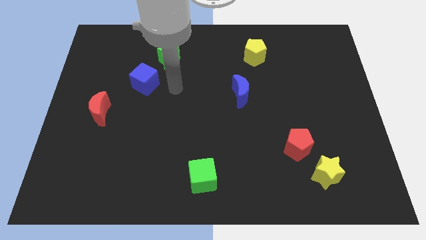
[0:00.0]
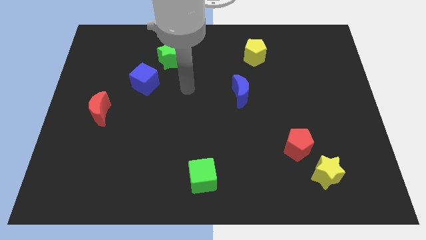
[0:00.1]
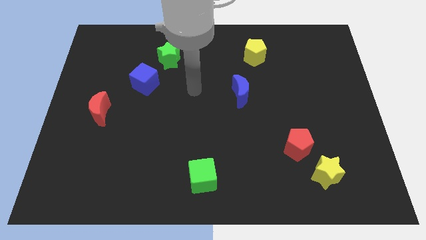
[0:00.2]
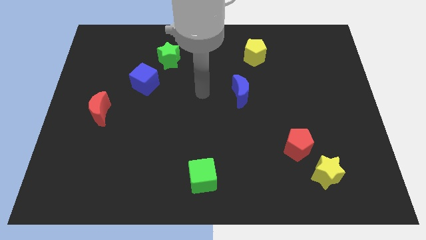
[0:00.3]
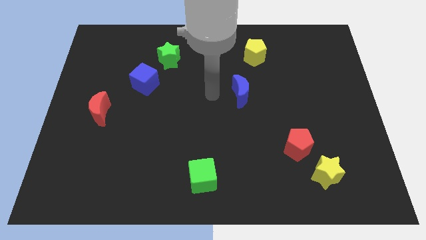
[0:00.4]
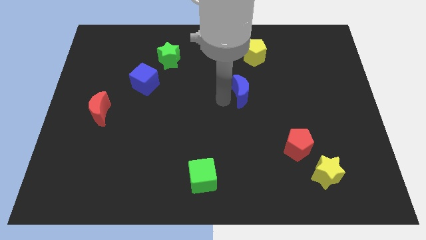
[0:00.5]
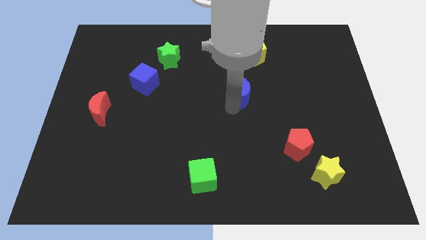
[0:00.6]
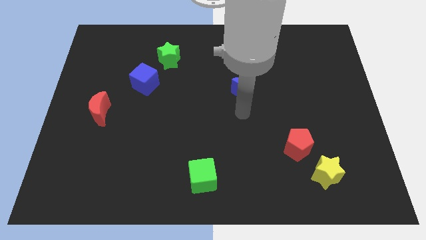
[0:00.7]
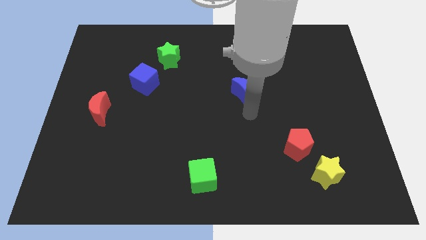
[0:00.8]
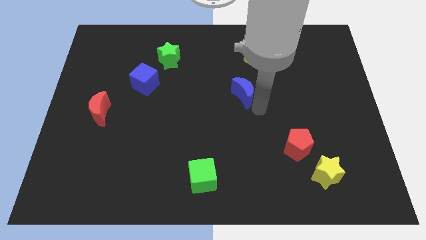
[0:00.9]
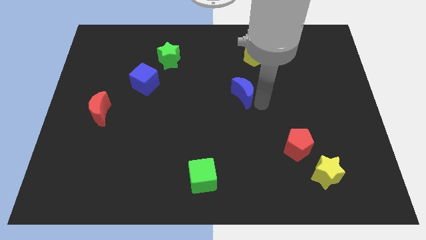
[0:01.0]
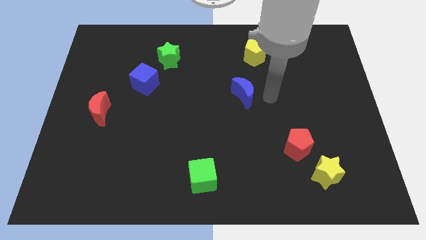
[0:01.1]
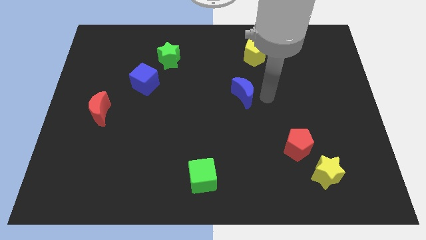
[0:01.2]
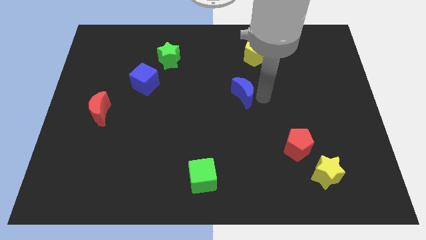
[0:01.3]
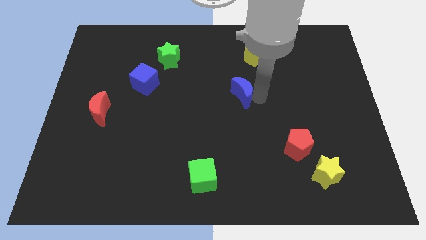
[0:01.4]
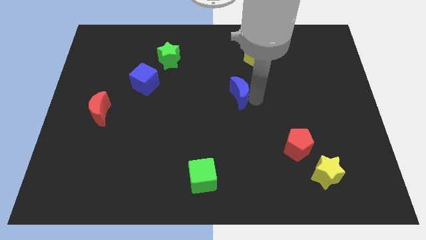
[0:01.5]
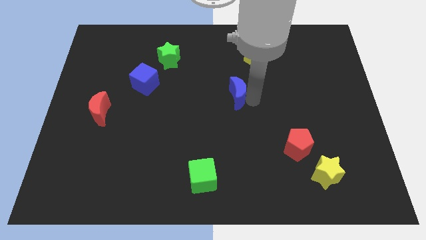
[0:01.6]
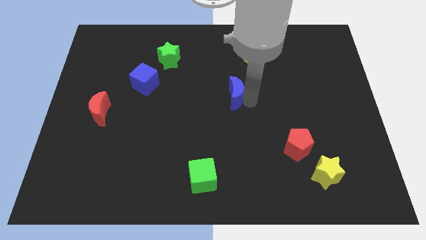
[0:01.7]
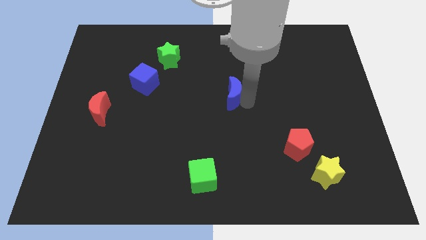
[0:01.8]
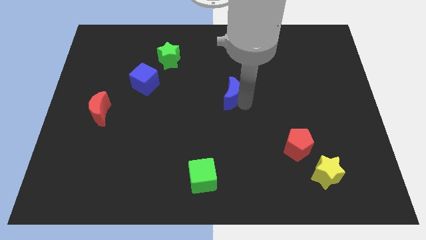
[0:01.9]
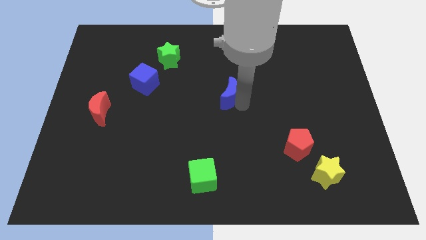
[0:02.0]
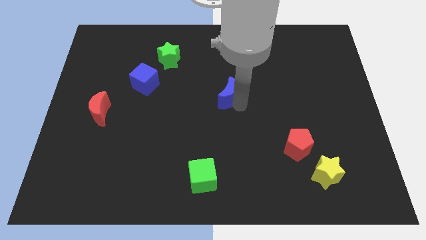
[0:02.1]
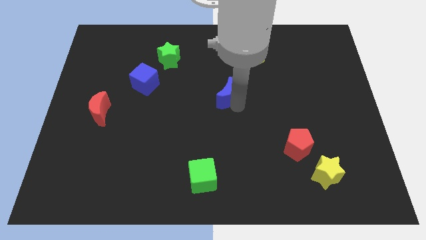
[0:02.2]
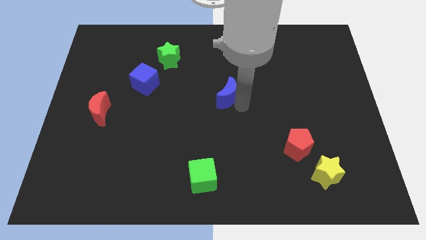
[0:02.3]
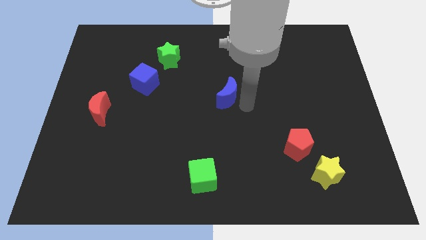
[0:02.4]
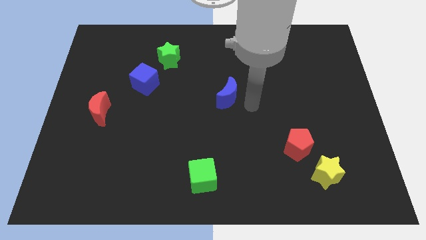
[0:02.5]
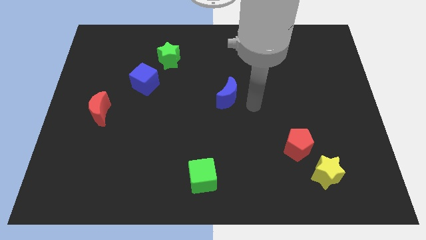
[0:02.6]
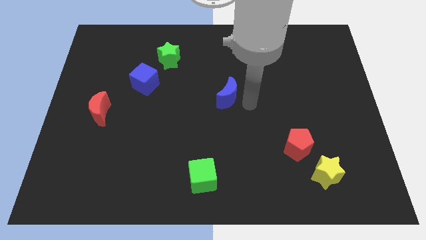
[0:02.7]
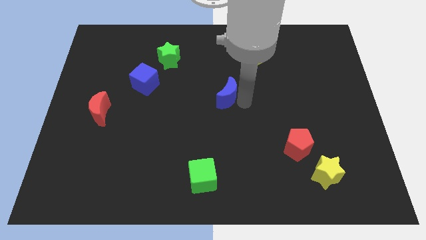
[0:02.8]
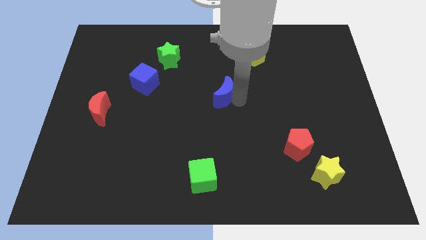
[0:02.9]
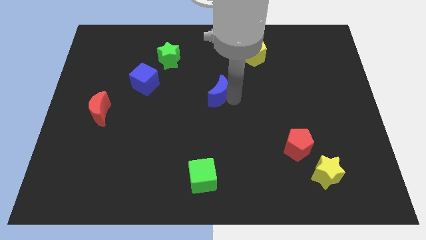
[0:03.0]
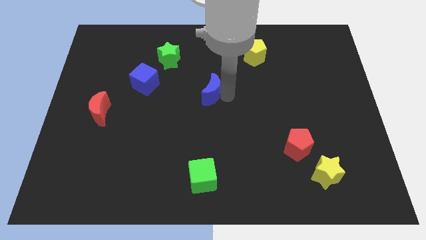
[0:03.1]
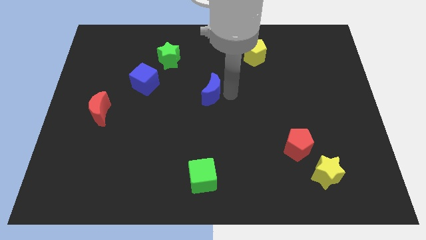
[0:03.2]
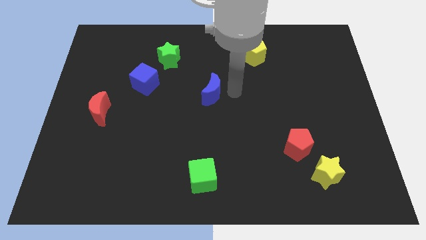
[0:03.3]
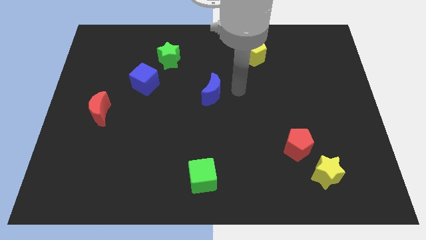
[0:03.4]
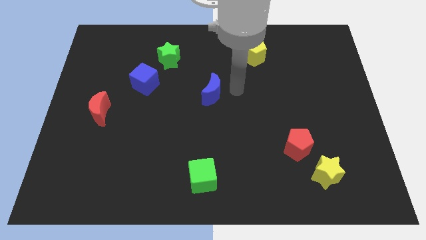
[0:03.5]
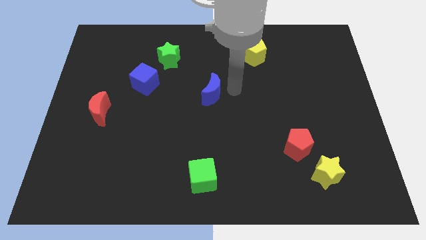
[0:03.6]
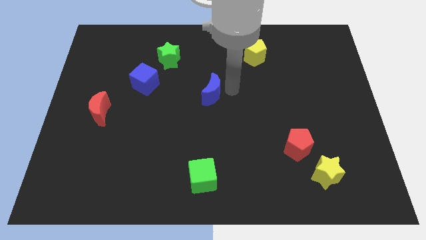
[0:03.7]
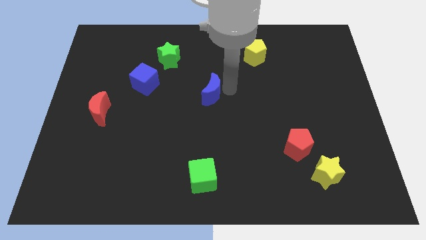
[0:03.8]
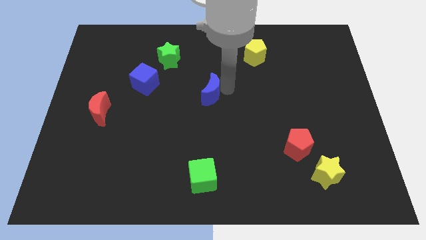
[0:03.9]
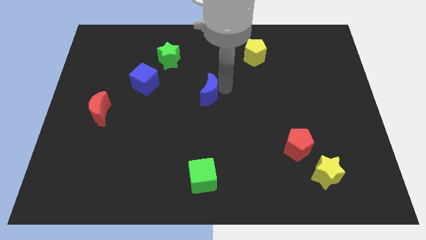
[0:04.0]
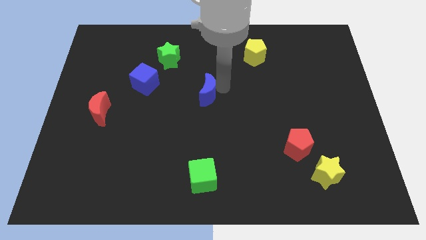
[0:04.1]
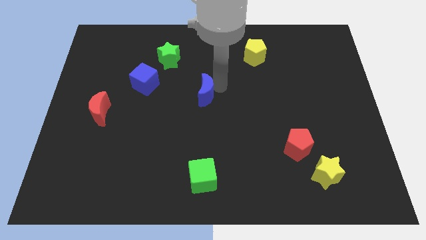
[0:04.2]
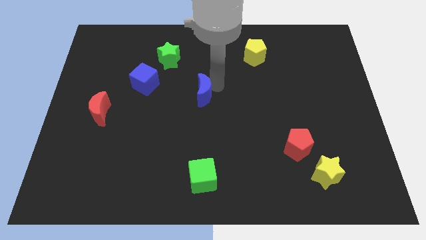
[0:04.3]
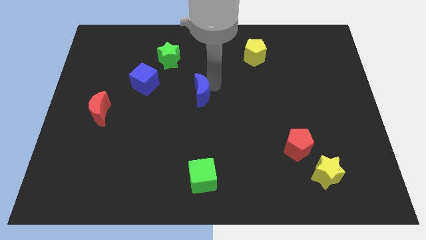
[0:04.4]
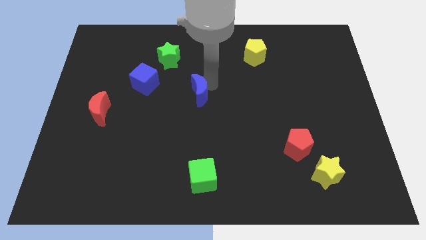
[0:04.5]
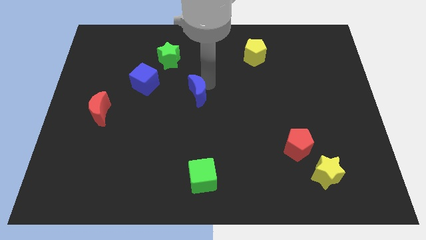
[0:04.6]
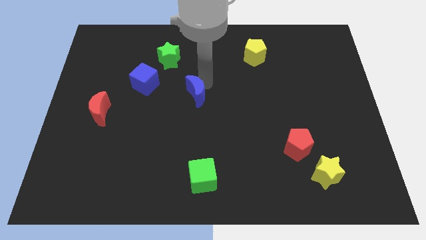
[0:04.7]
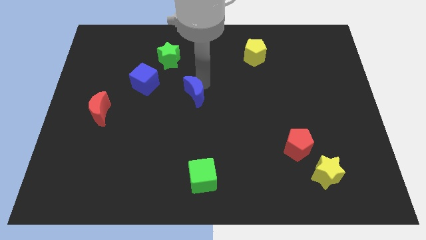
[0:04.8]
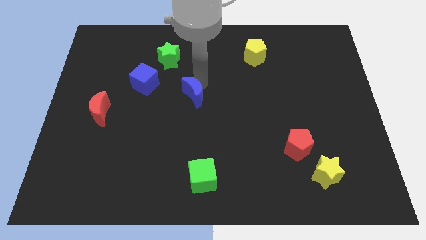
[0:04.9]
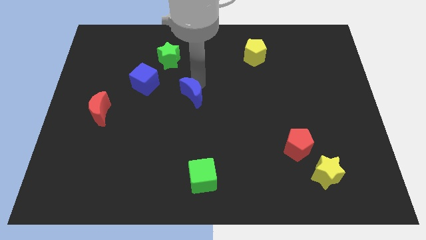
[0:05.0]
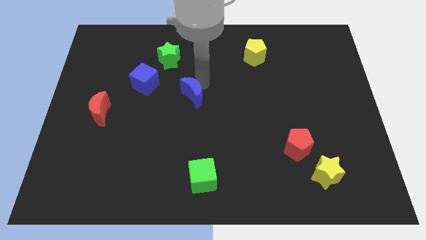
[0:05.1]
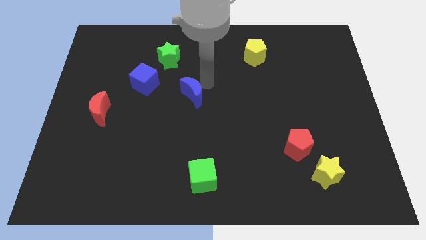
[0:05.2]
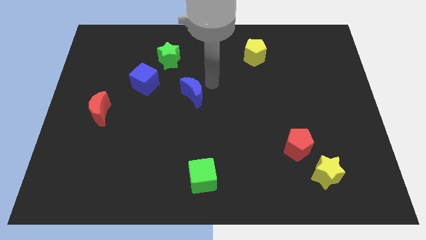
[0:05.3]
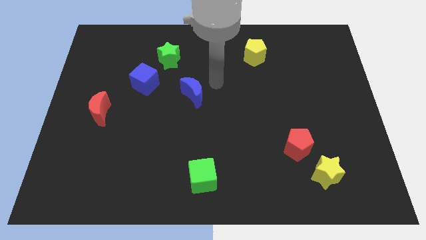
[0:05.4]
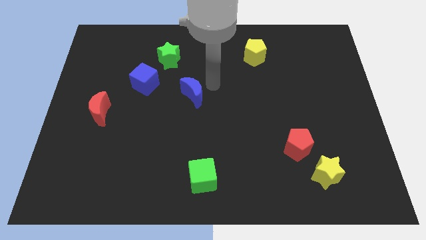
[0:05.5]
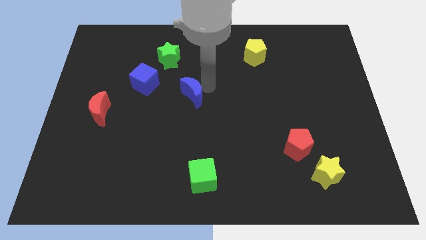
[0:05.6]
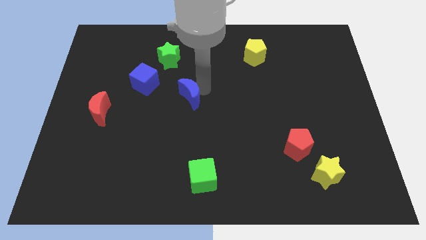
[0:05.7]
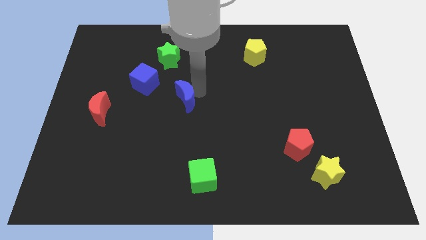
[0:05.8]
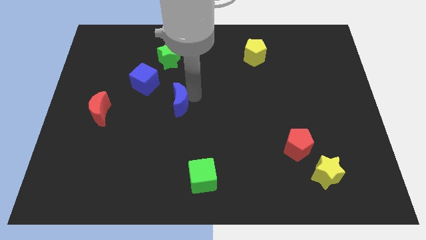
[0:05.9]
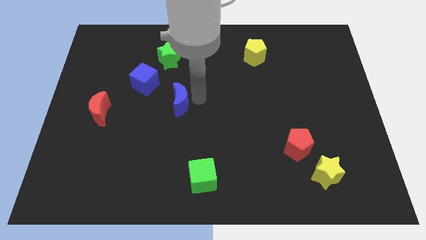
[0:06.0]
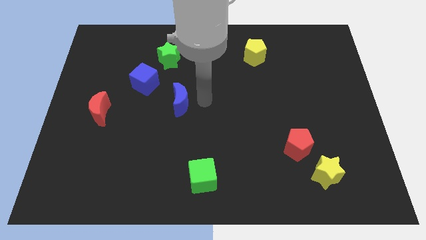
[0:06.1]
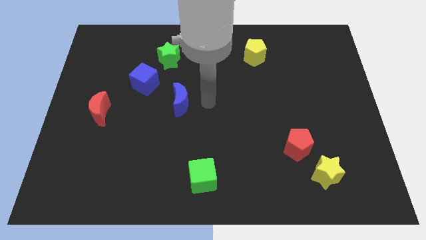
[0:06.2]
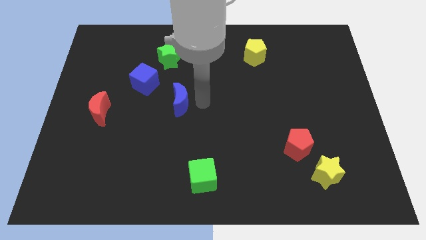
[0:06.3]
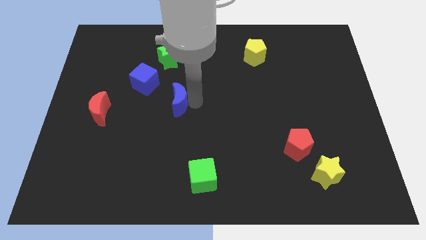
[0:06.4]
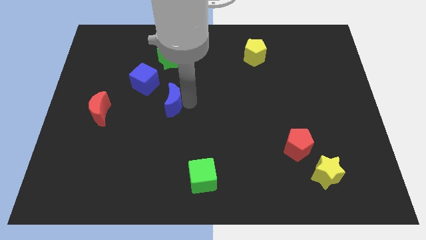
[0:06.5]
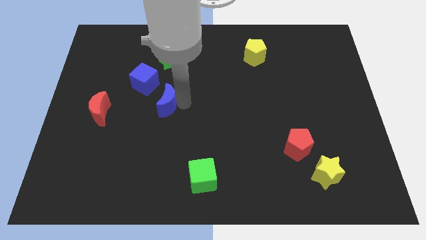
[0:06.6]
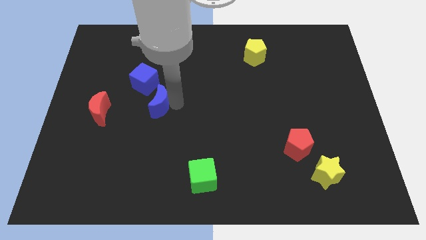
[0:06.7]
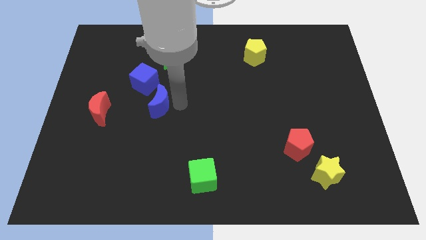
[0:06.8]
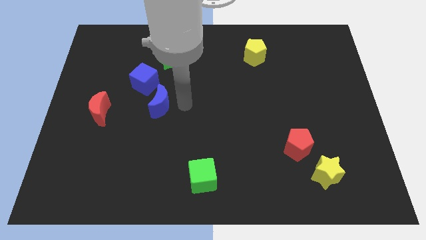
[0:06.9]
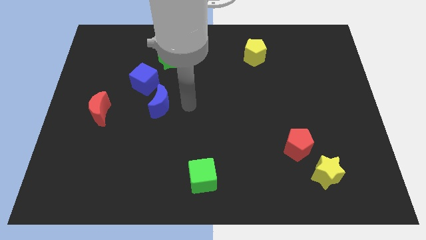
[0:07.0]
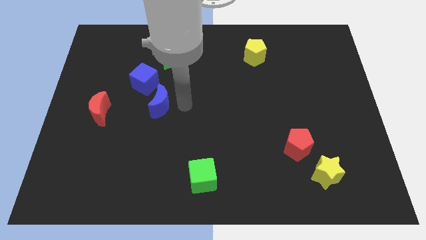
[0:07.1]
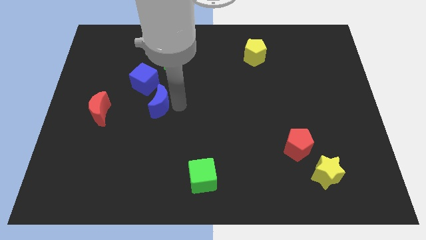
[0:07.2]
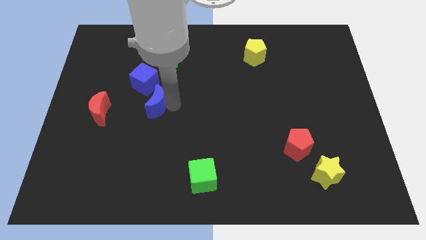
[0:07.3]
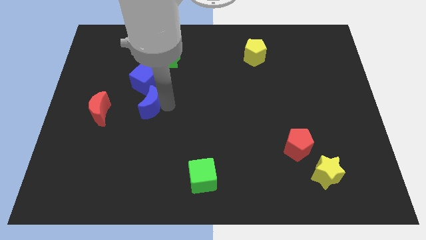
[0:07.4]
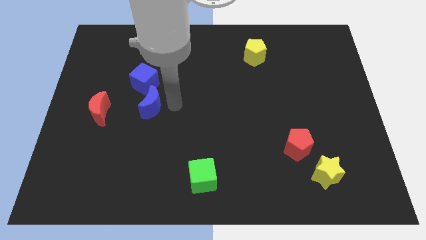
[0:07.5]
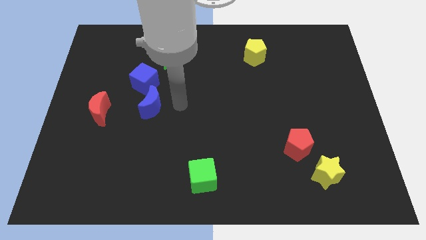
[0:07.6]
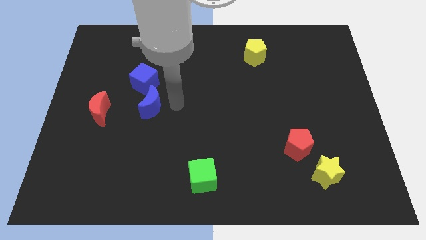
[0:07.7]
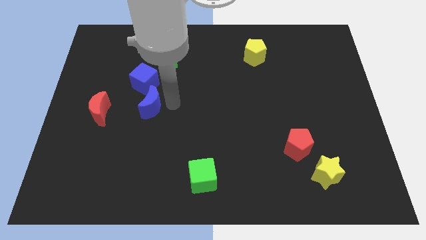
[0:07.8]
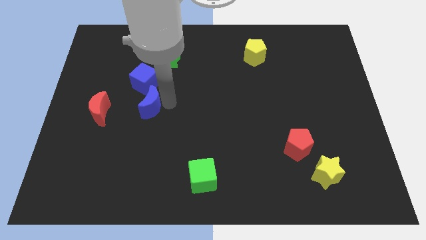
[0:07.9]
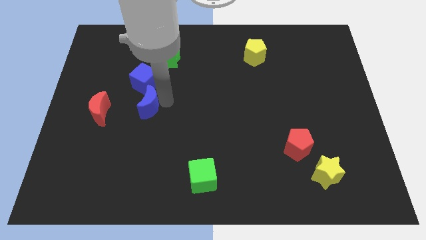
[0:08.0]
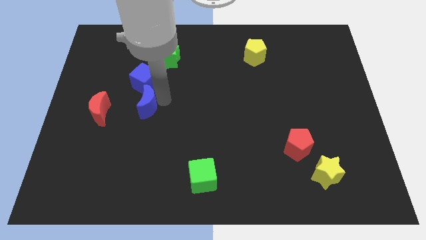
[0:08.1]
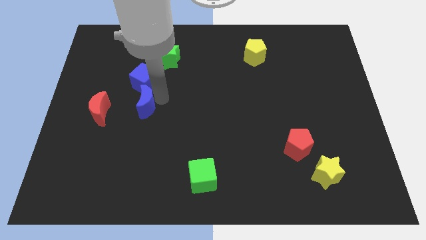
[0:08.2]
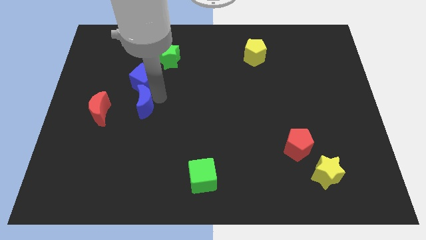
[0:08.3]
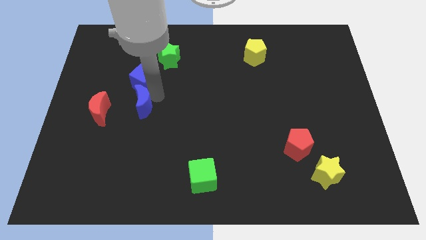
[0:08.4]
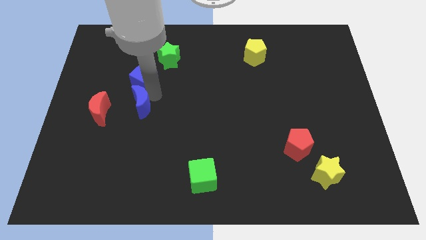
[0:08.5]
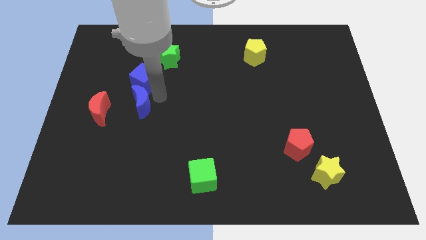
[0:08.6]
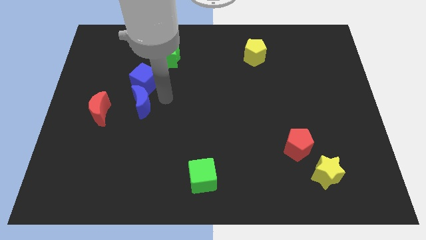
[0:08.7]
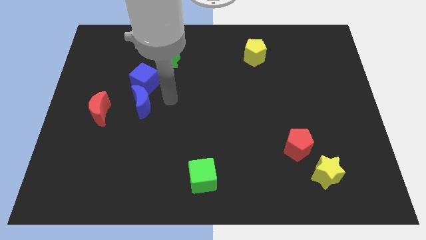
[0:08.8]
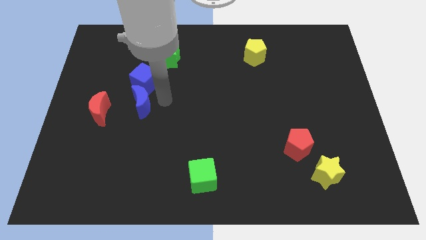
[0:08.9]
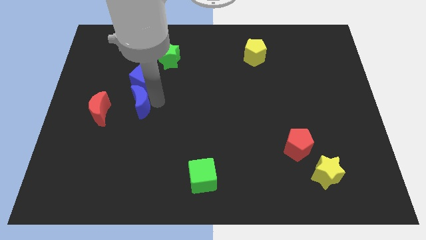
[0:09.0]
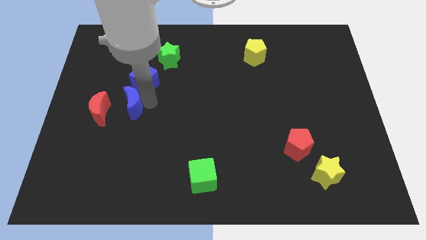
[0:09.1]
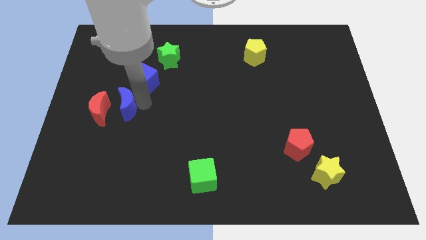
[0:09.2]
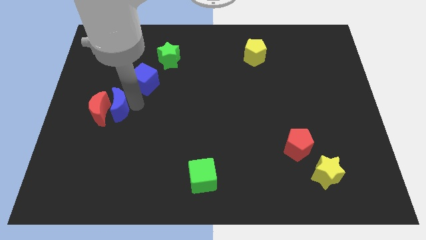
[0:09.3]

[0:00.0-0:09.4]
move the blue moon close to the red moon
